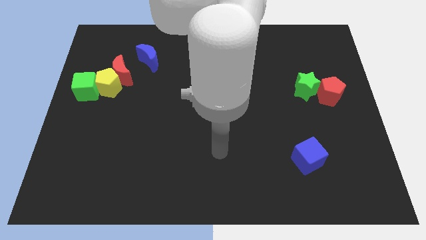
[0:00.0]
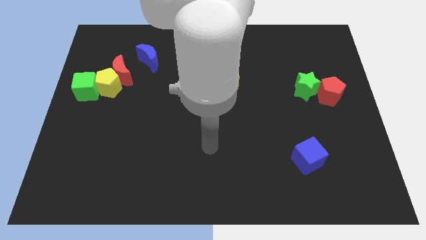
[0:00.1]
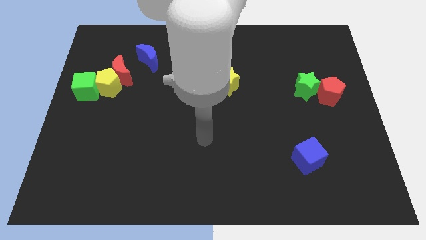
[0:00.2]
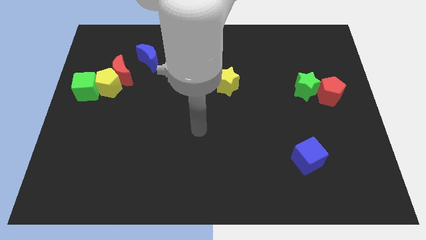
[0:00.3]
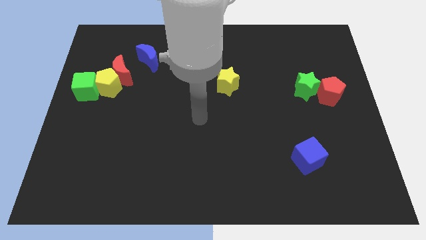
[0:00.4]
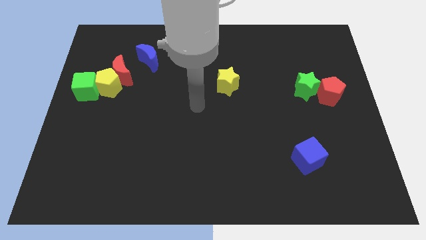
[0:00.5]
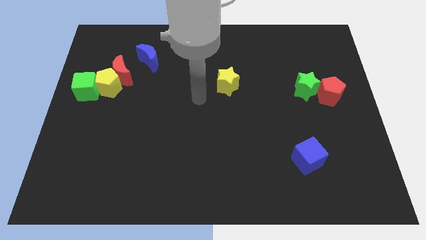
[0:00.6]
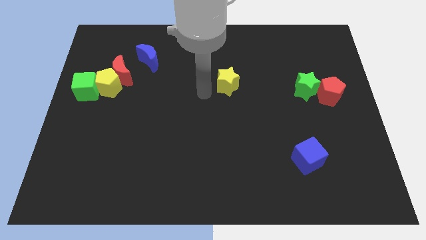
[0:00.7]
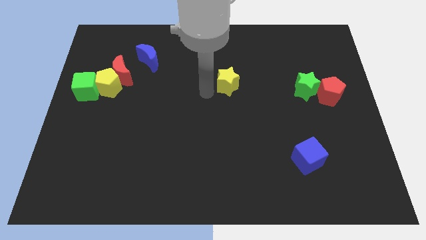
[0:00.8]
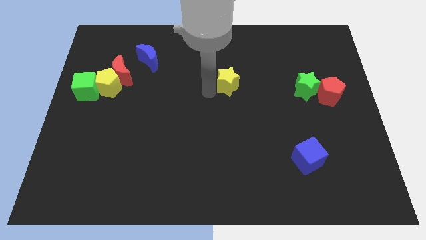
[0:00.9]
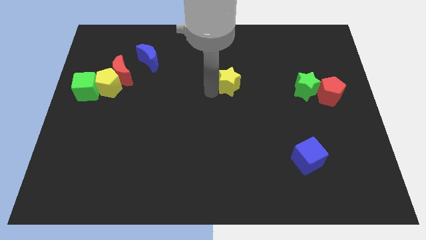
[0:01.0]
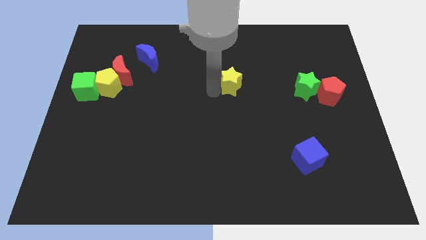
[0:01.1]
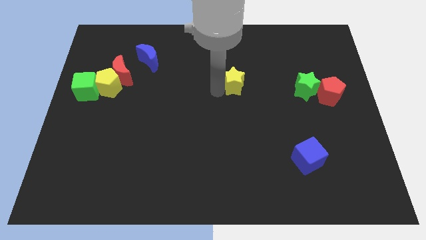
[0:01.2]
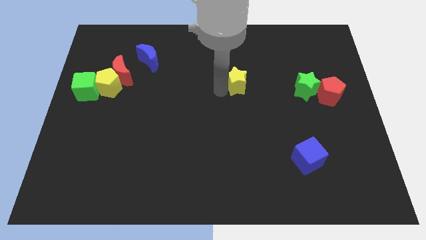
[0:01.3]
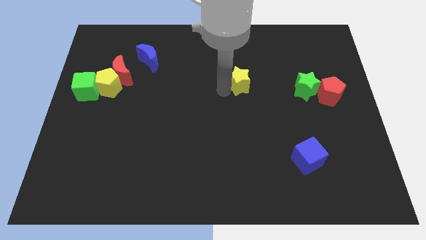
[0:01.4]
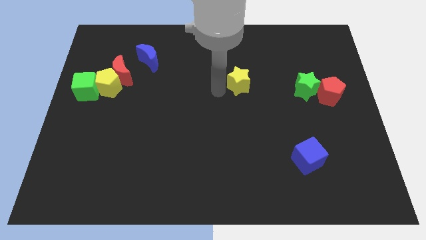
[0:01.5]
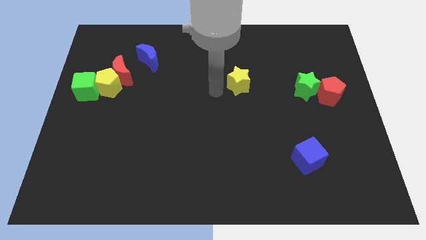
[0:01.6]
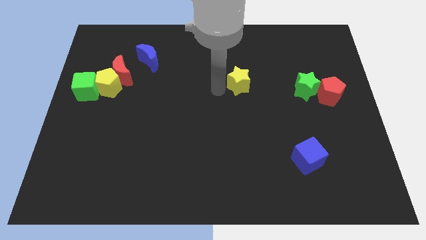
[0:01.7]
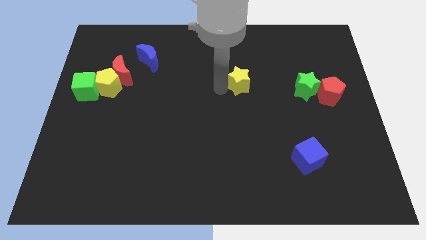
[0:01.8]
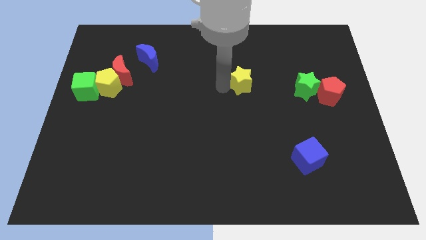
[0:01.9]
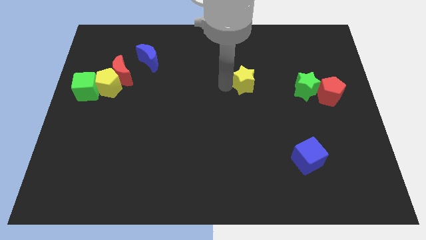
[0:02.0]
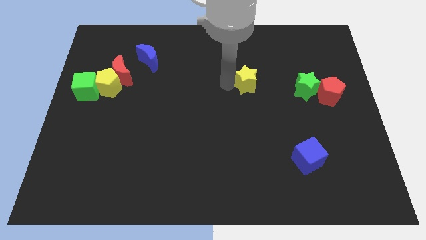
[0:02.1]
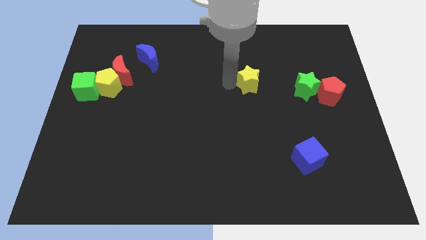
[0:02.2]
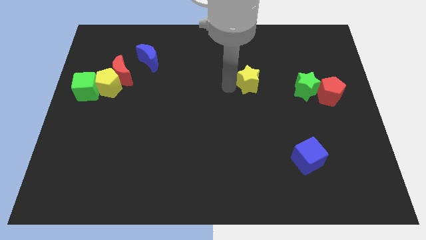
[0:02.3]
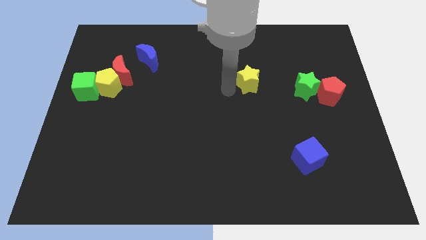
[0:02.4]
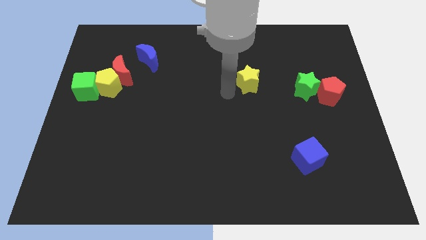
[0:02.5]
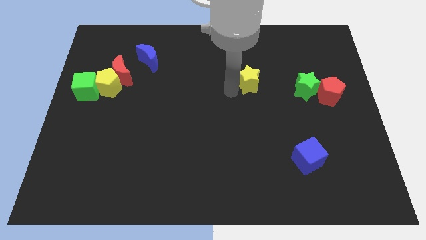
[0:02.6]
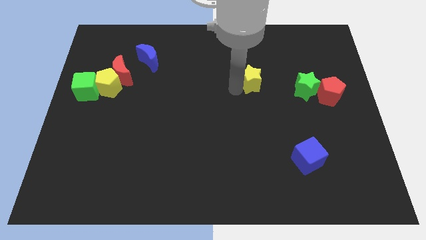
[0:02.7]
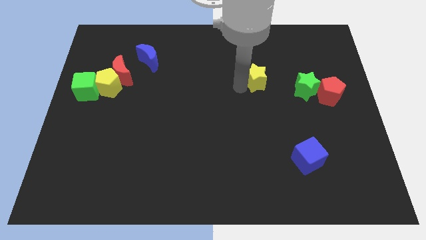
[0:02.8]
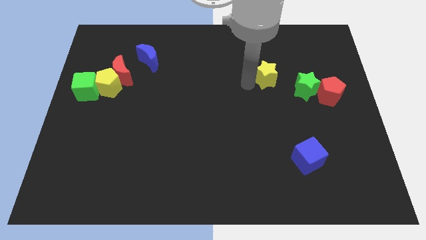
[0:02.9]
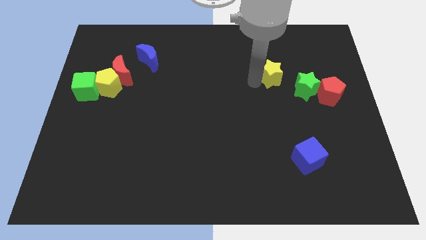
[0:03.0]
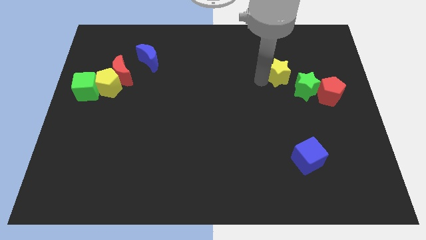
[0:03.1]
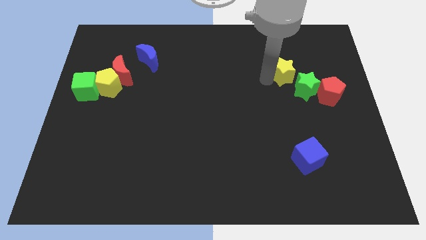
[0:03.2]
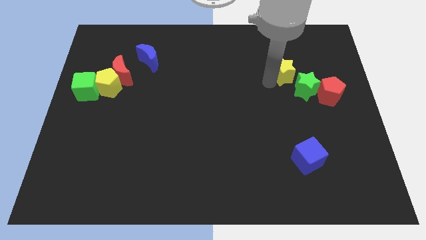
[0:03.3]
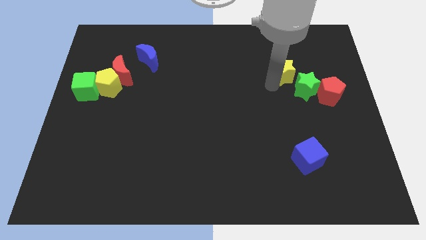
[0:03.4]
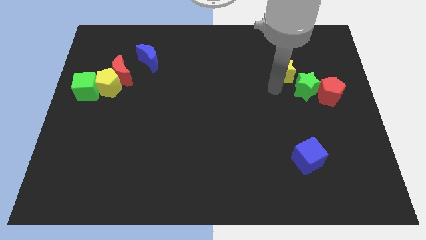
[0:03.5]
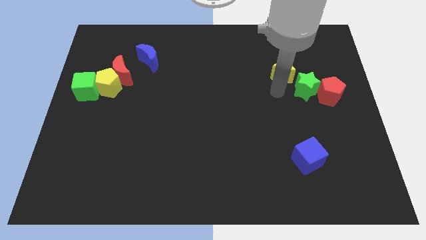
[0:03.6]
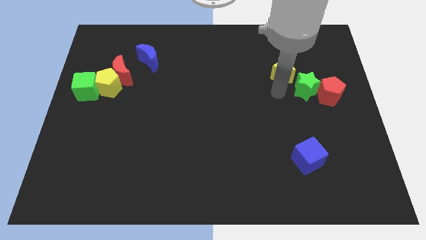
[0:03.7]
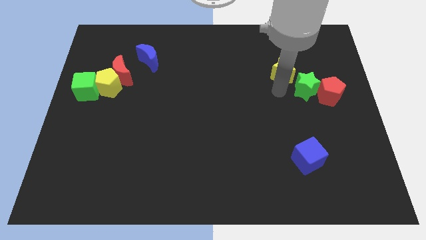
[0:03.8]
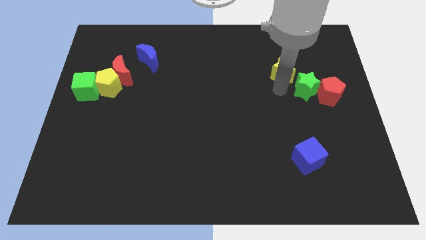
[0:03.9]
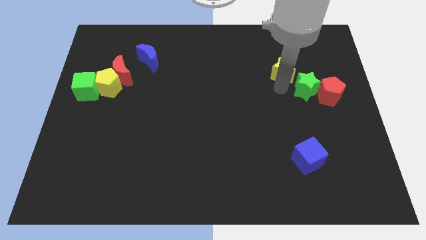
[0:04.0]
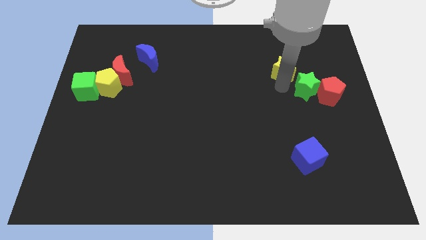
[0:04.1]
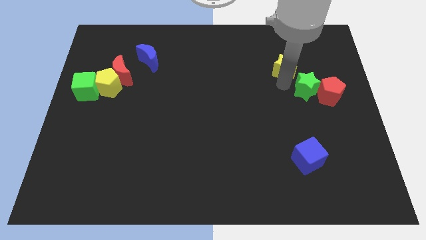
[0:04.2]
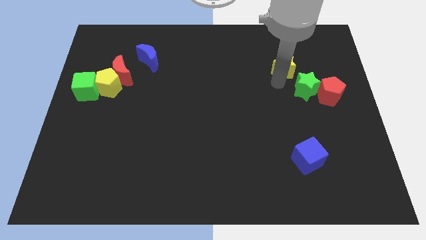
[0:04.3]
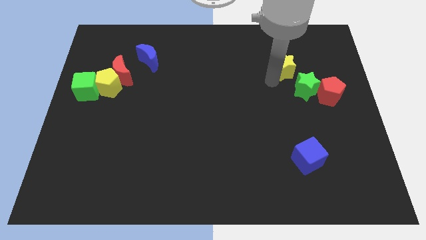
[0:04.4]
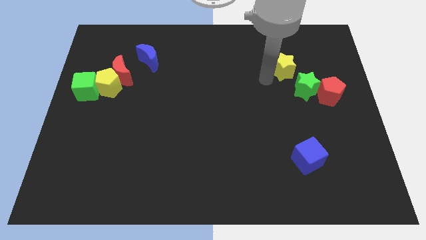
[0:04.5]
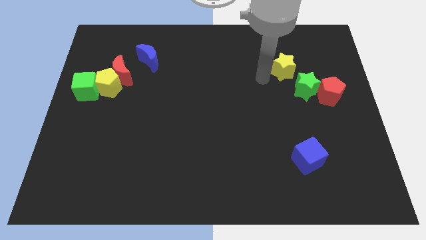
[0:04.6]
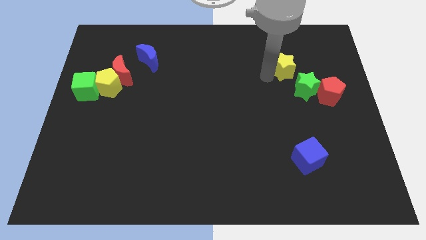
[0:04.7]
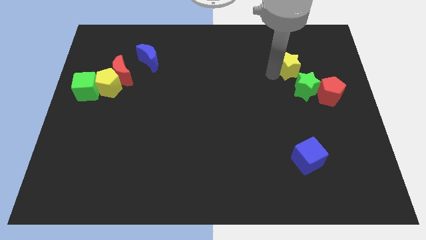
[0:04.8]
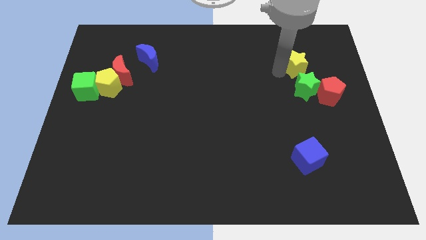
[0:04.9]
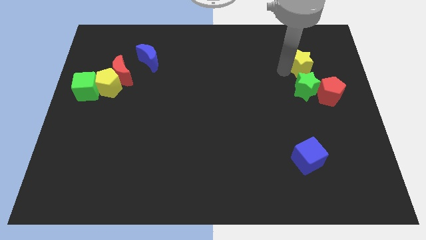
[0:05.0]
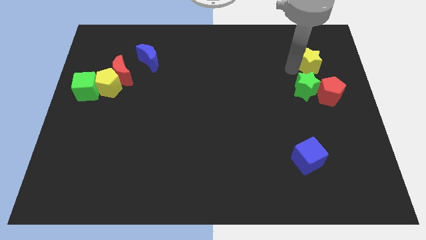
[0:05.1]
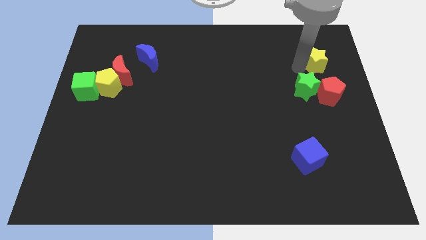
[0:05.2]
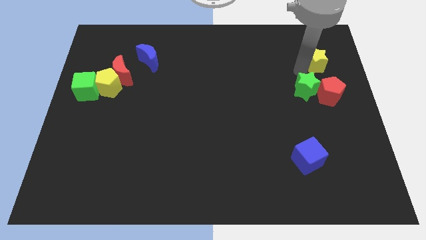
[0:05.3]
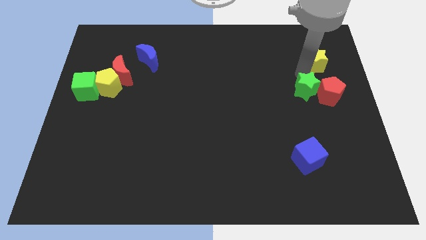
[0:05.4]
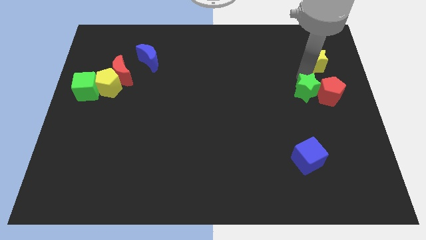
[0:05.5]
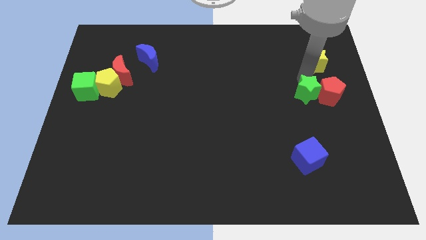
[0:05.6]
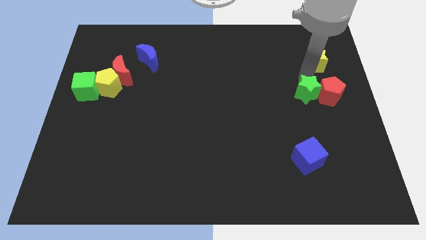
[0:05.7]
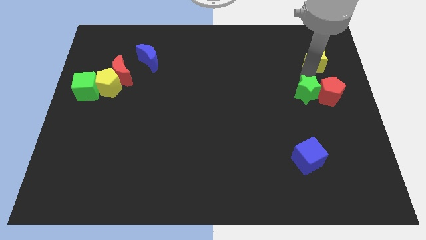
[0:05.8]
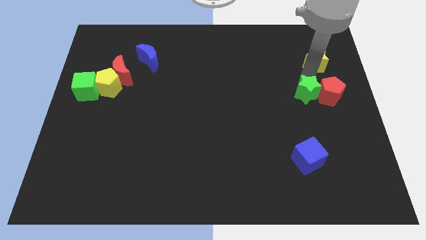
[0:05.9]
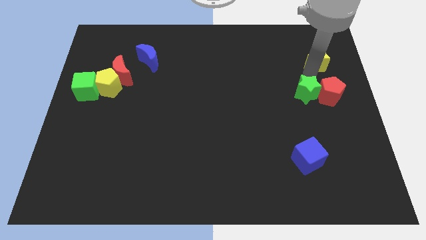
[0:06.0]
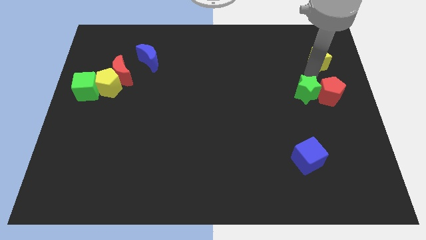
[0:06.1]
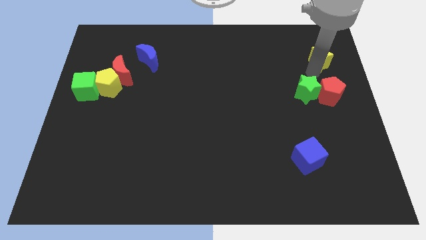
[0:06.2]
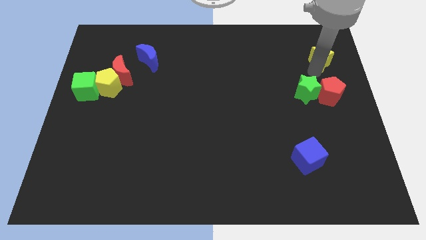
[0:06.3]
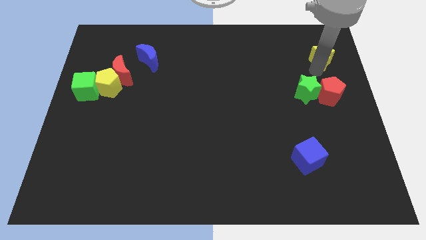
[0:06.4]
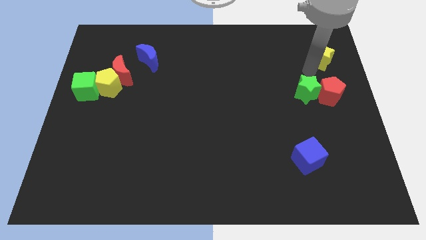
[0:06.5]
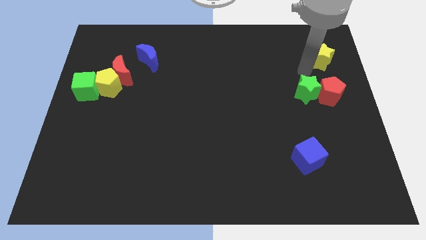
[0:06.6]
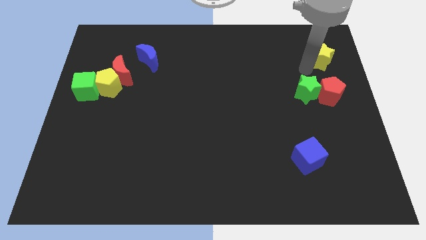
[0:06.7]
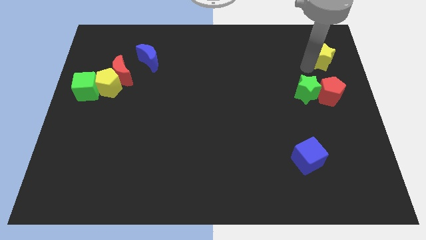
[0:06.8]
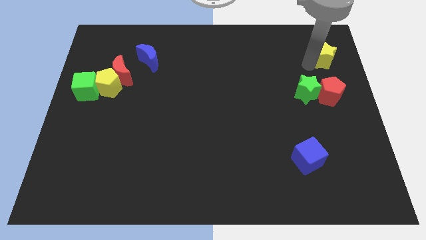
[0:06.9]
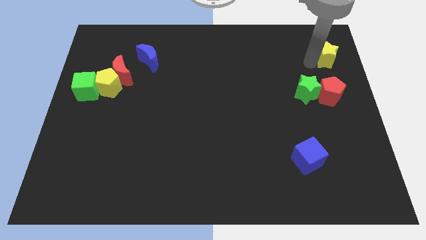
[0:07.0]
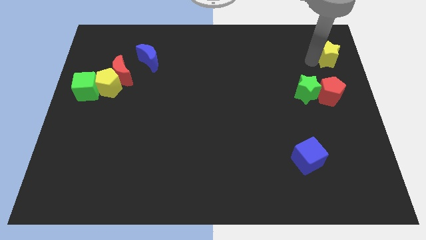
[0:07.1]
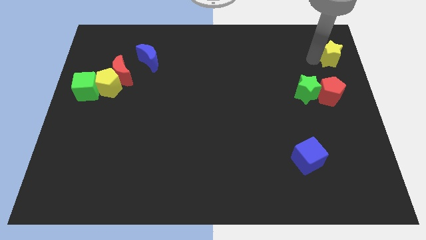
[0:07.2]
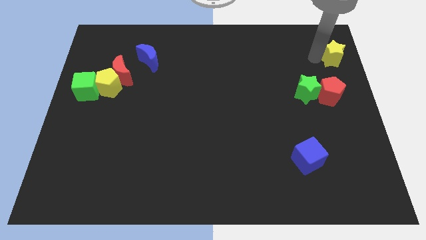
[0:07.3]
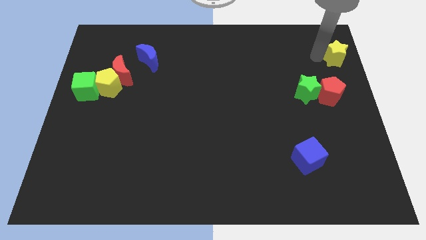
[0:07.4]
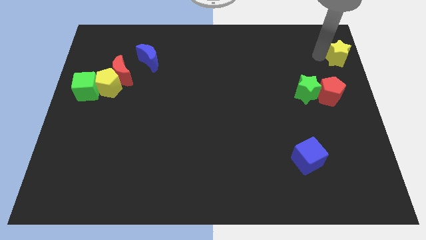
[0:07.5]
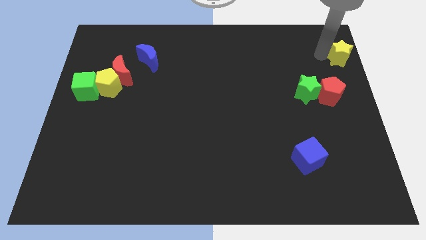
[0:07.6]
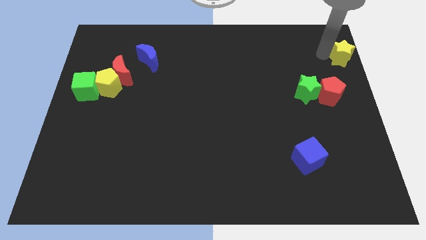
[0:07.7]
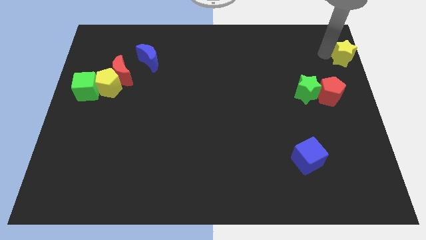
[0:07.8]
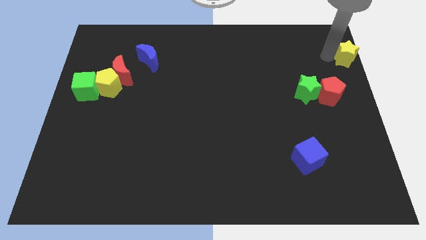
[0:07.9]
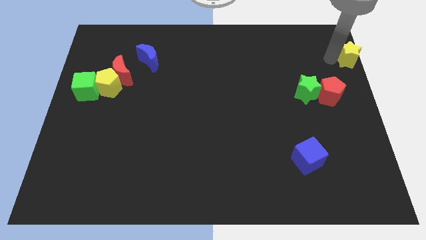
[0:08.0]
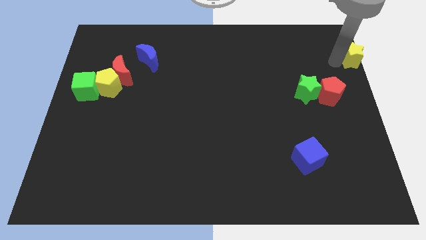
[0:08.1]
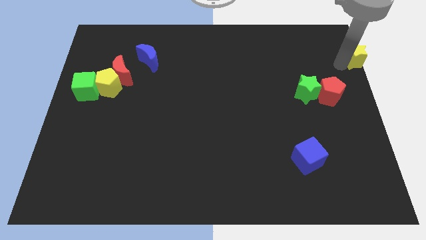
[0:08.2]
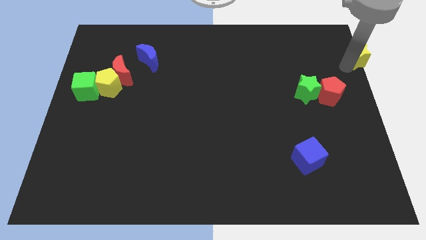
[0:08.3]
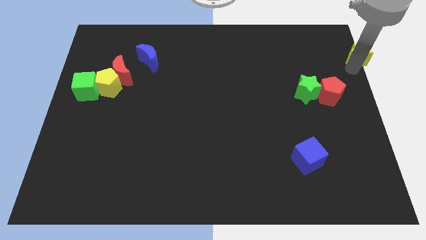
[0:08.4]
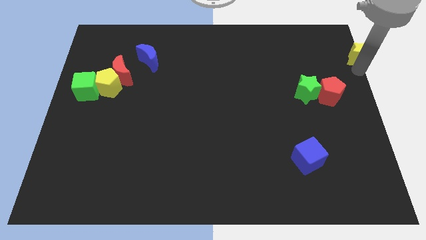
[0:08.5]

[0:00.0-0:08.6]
push the yellow star to the top right
